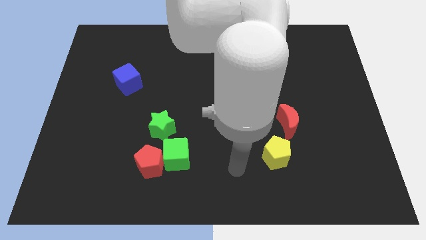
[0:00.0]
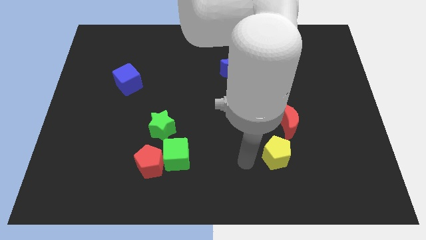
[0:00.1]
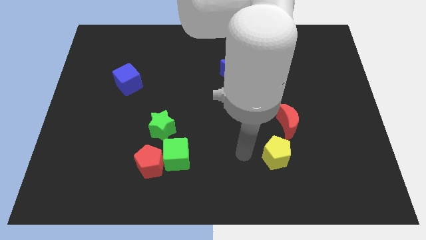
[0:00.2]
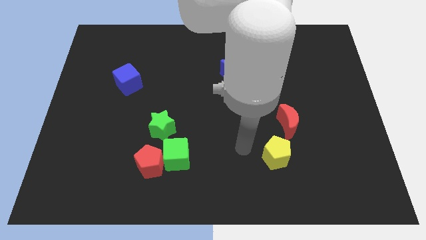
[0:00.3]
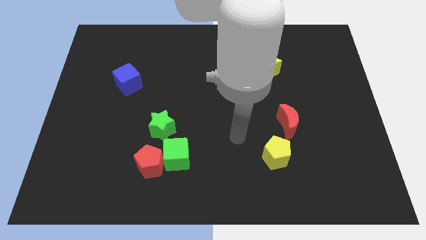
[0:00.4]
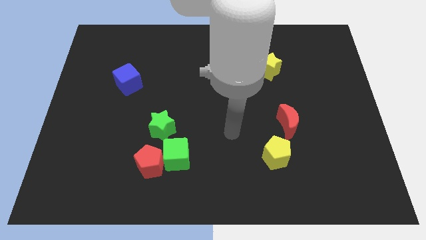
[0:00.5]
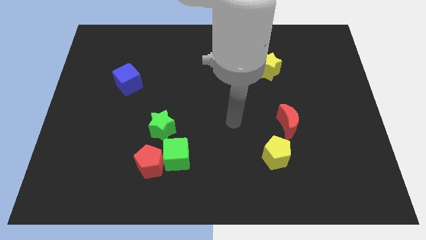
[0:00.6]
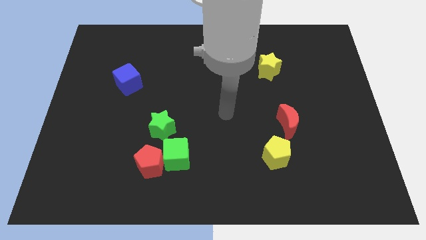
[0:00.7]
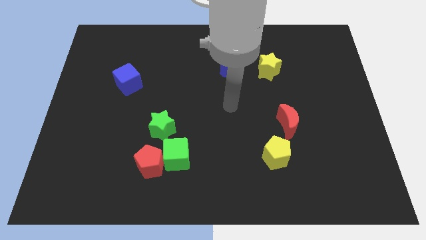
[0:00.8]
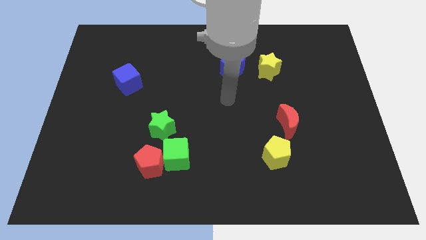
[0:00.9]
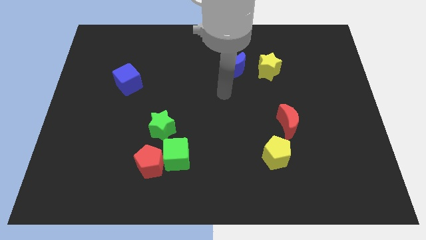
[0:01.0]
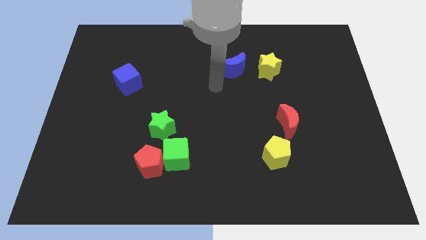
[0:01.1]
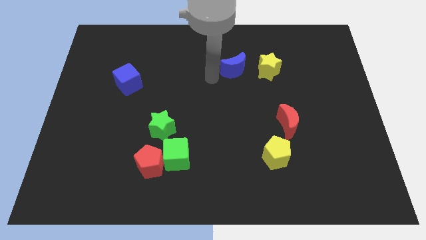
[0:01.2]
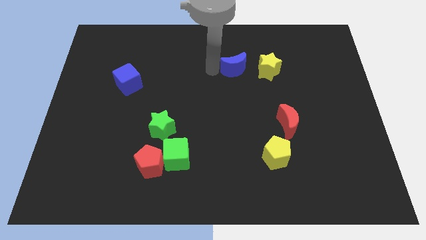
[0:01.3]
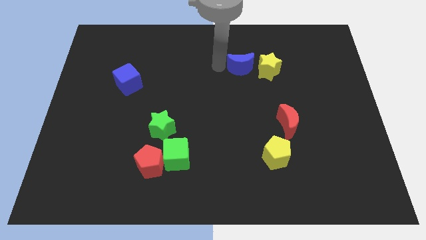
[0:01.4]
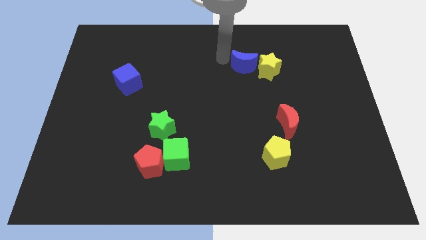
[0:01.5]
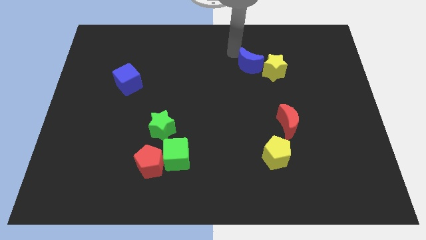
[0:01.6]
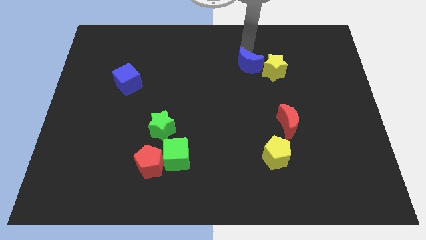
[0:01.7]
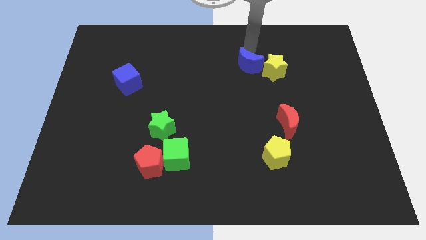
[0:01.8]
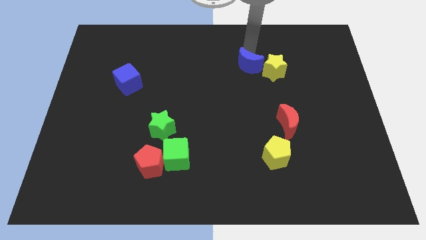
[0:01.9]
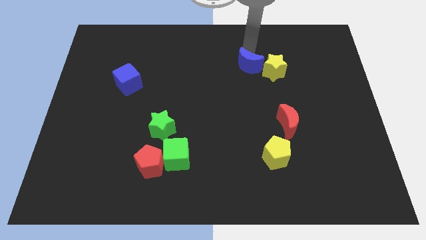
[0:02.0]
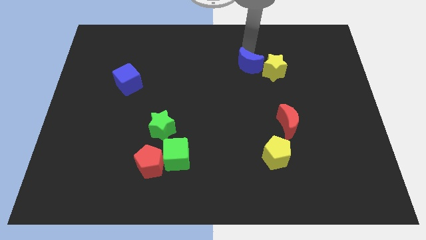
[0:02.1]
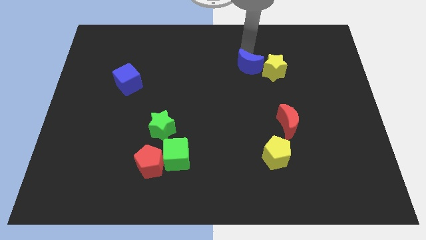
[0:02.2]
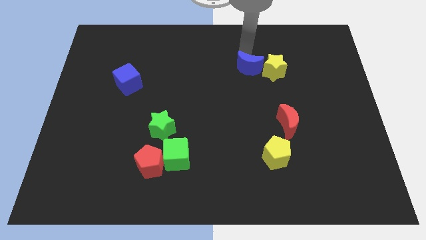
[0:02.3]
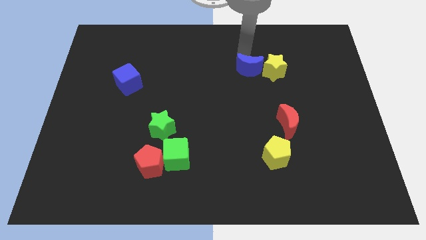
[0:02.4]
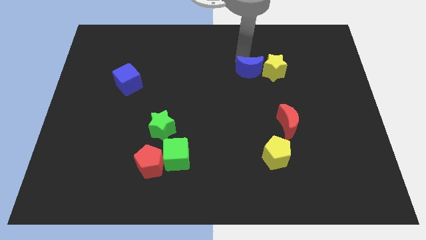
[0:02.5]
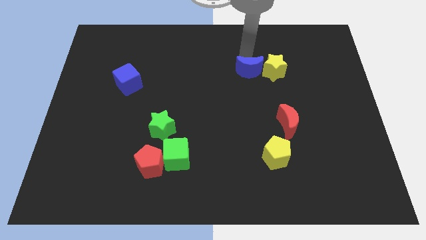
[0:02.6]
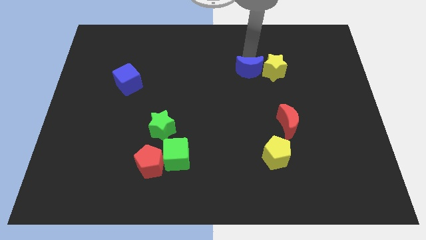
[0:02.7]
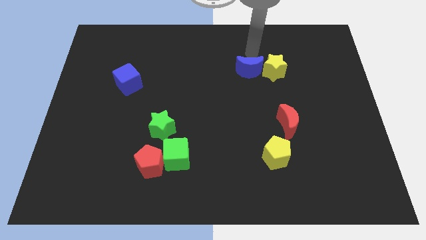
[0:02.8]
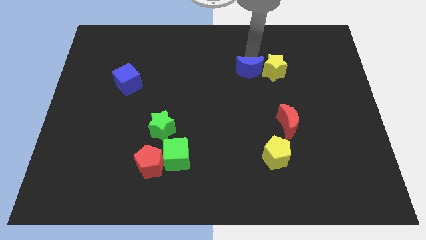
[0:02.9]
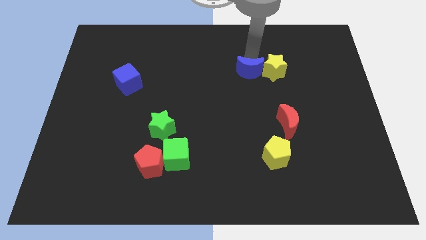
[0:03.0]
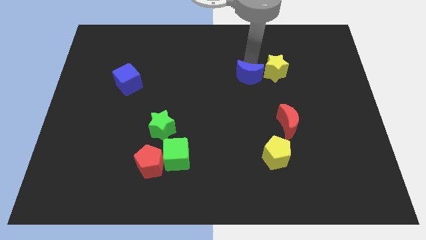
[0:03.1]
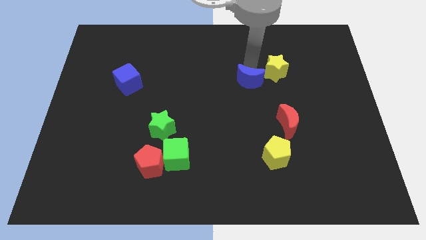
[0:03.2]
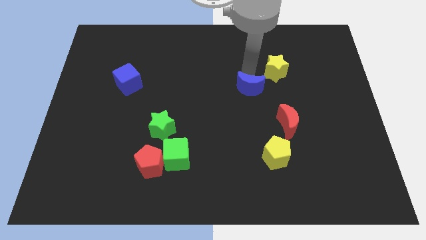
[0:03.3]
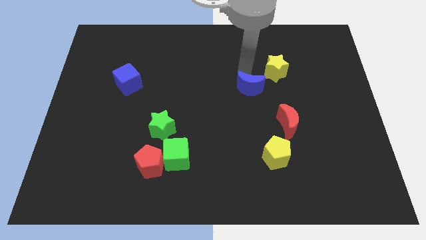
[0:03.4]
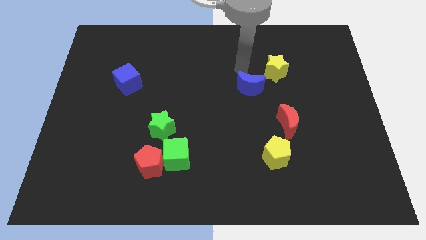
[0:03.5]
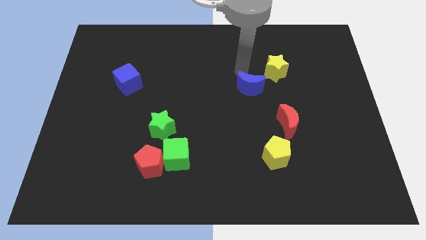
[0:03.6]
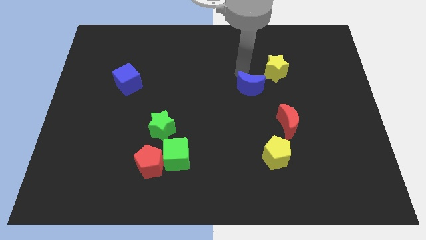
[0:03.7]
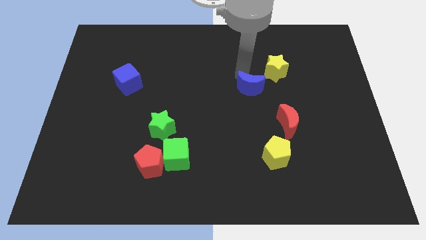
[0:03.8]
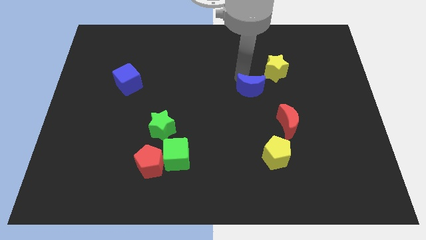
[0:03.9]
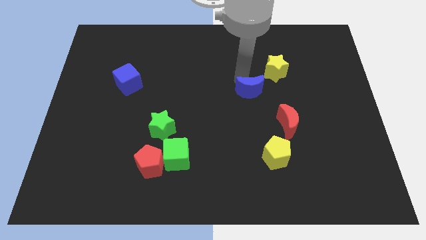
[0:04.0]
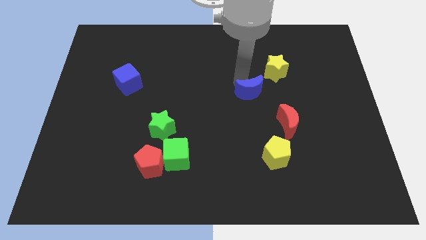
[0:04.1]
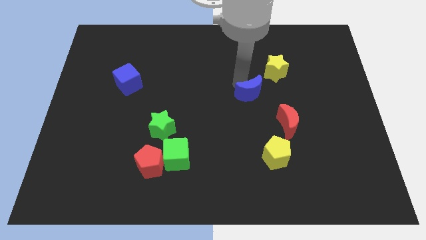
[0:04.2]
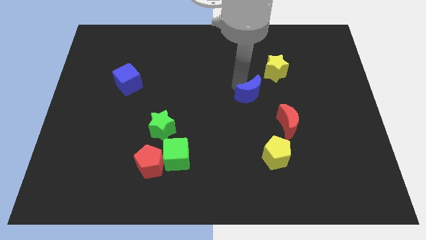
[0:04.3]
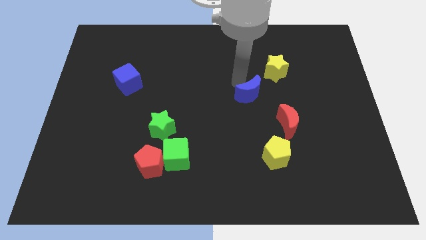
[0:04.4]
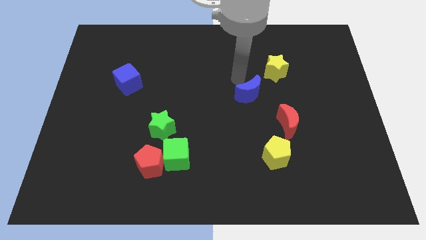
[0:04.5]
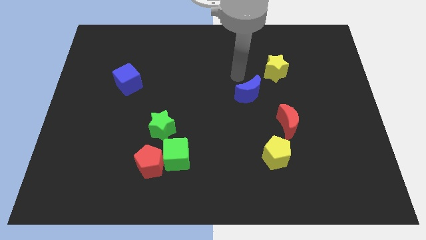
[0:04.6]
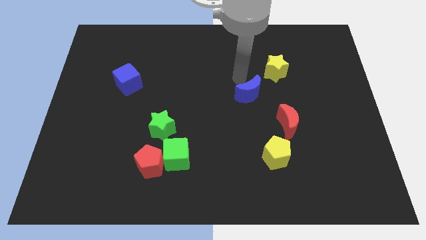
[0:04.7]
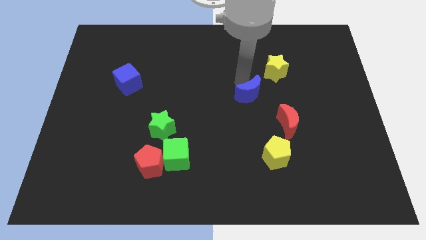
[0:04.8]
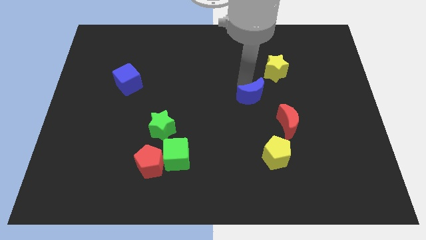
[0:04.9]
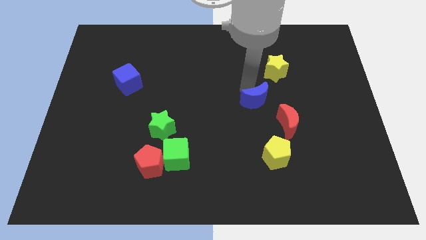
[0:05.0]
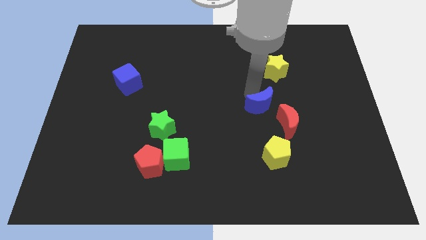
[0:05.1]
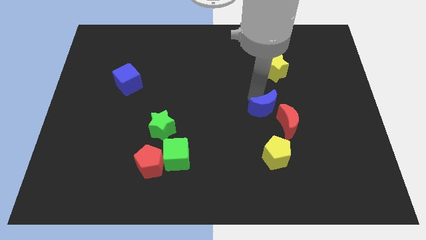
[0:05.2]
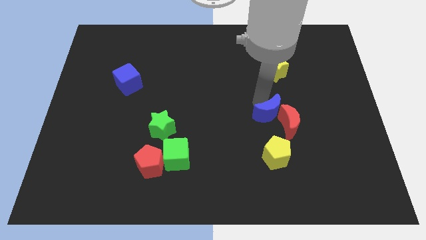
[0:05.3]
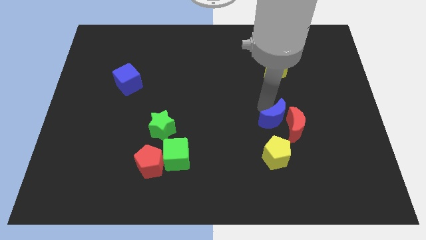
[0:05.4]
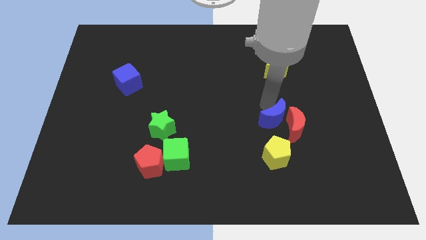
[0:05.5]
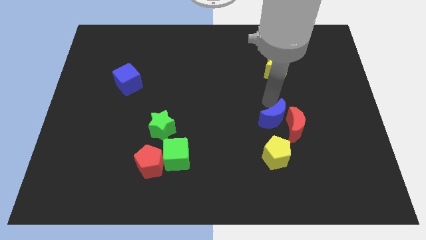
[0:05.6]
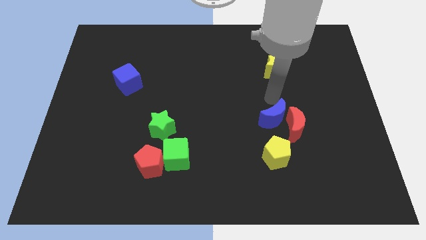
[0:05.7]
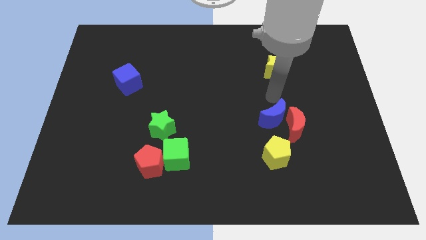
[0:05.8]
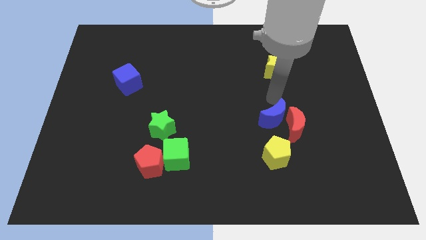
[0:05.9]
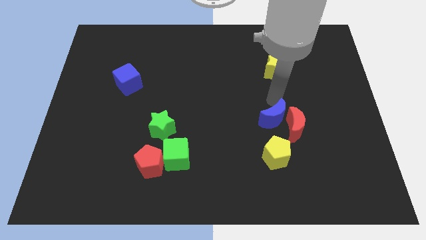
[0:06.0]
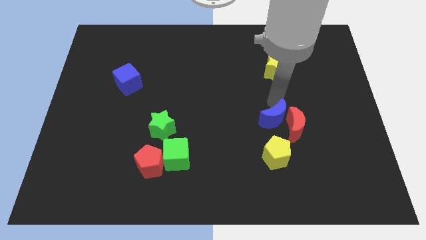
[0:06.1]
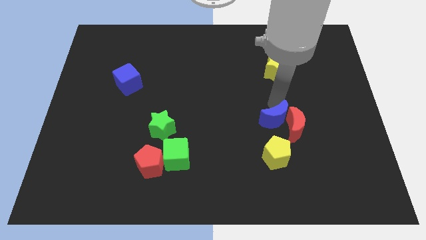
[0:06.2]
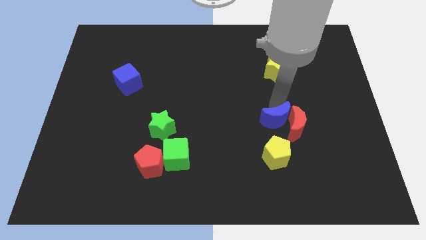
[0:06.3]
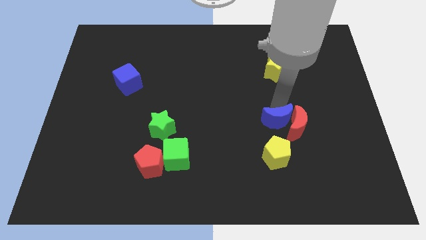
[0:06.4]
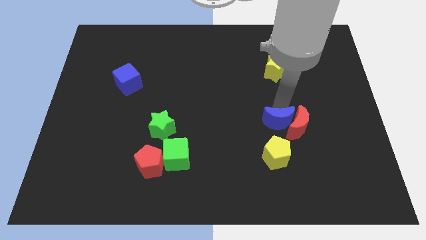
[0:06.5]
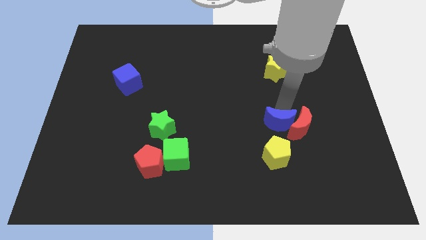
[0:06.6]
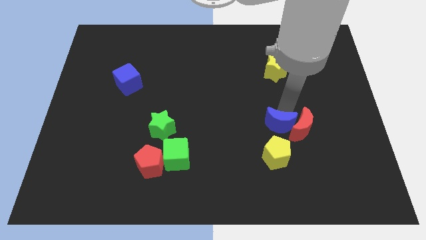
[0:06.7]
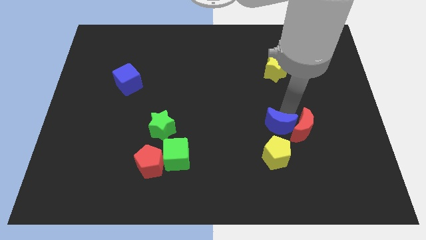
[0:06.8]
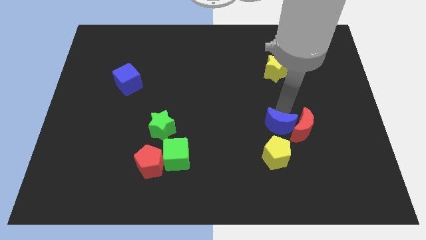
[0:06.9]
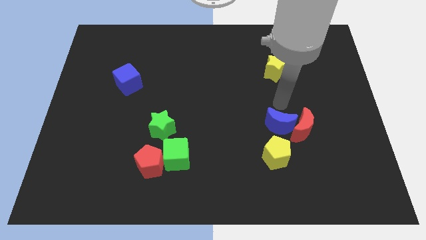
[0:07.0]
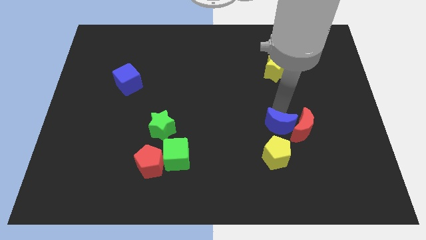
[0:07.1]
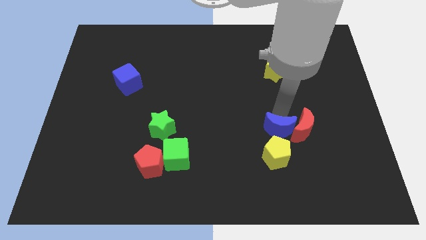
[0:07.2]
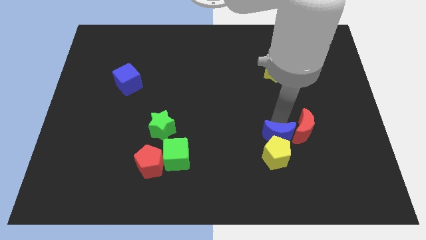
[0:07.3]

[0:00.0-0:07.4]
put the blue moon towards the yellow pentagon
